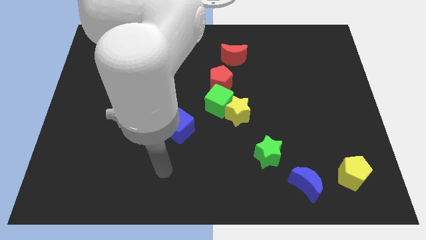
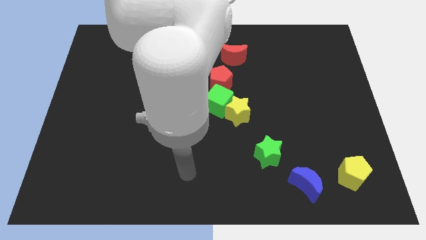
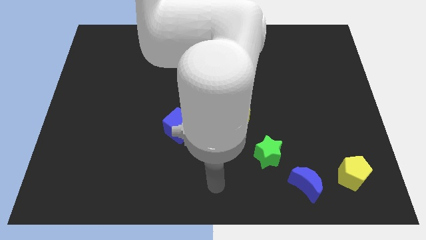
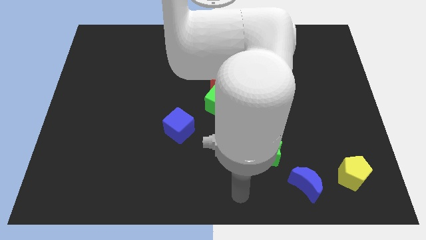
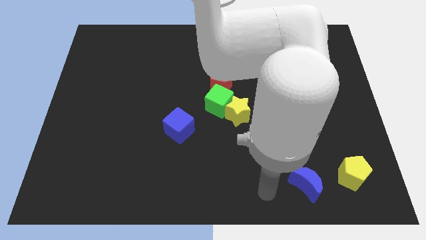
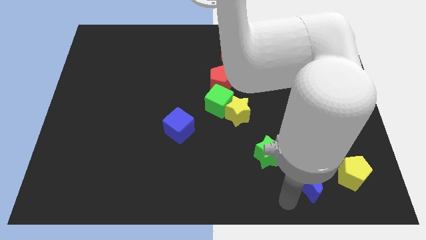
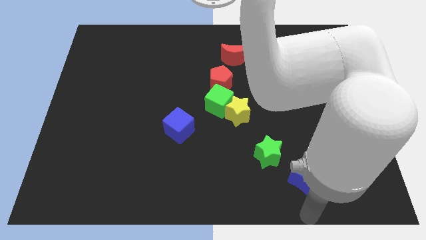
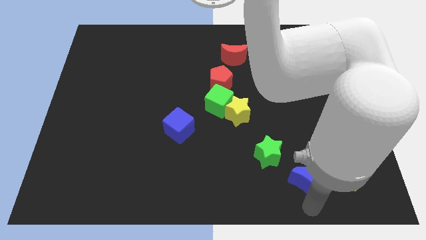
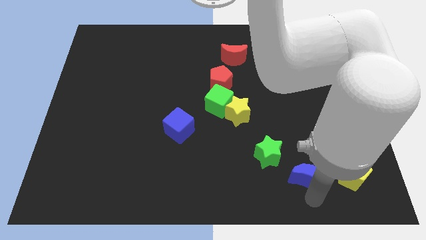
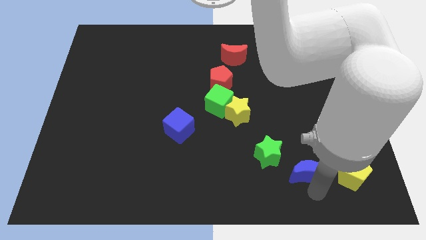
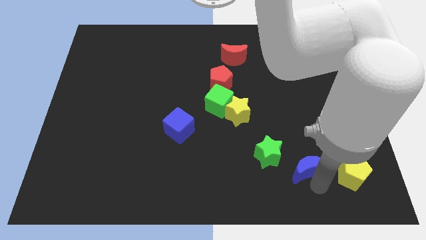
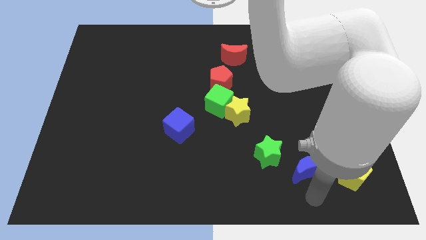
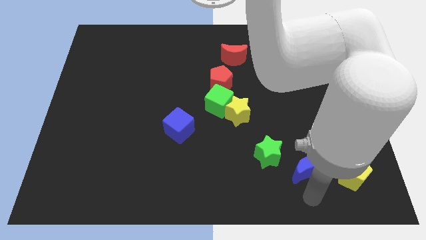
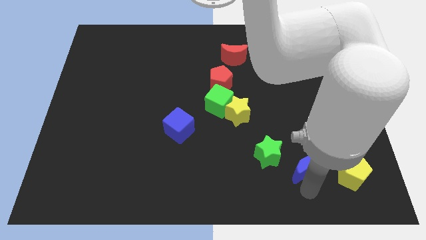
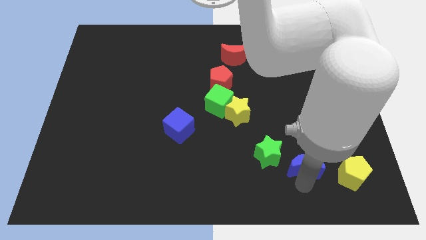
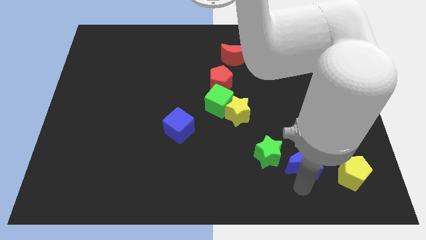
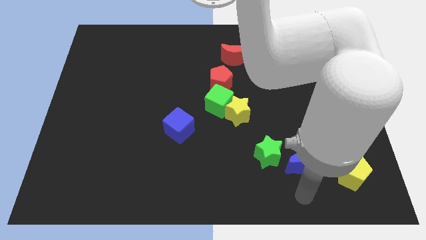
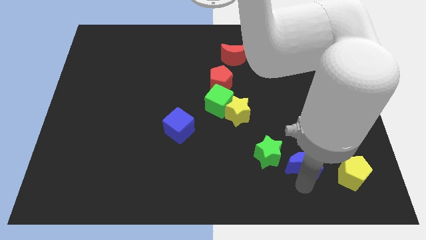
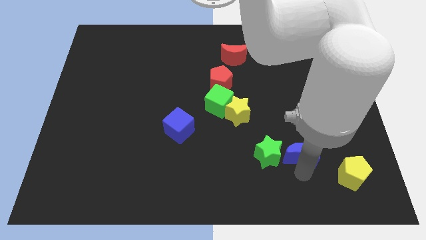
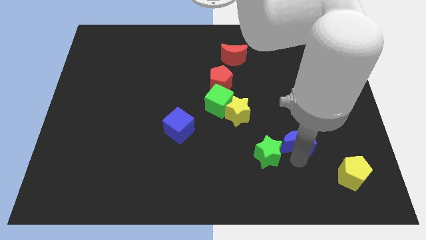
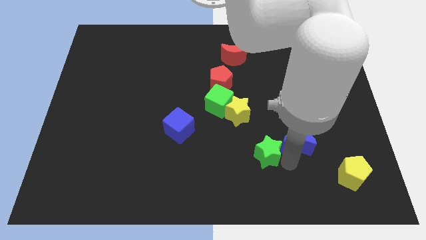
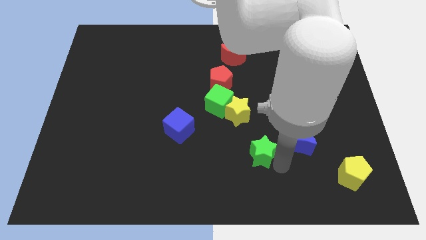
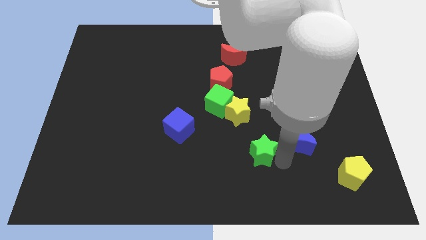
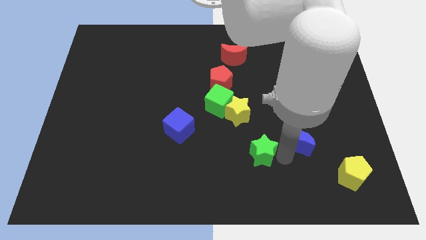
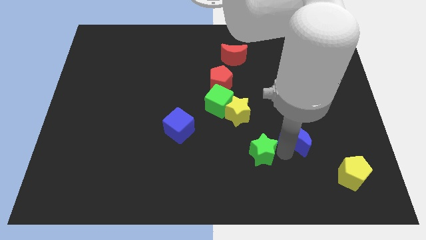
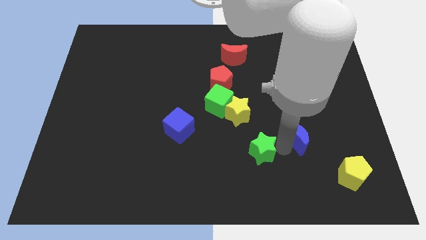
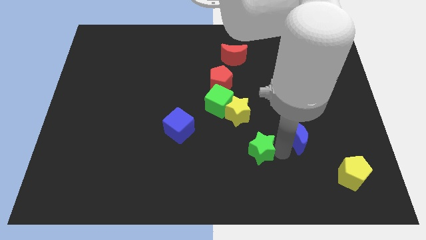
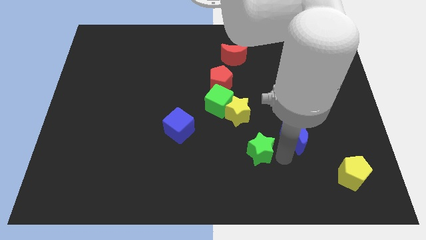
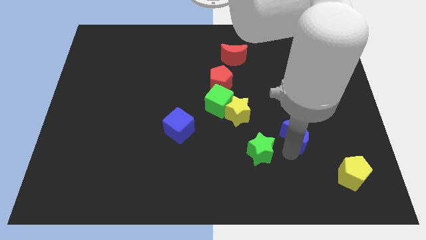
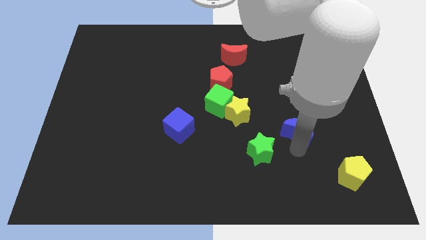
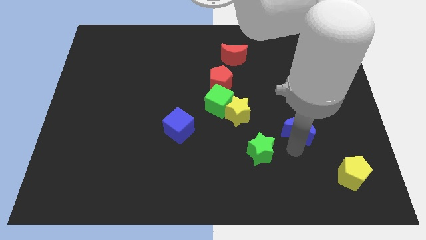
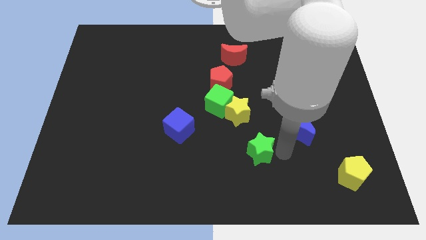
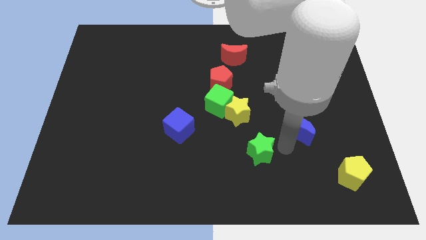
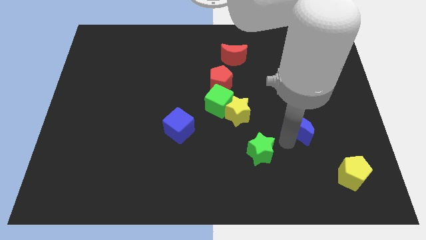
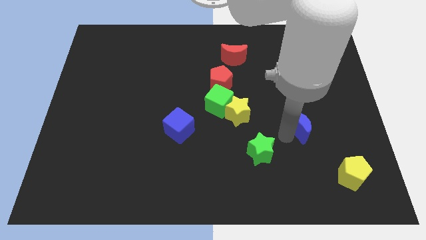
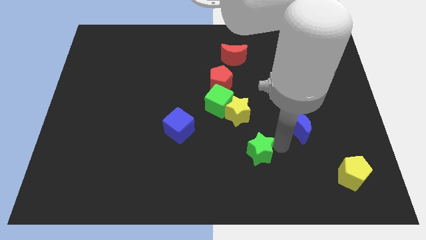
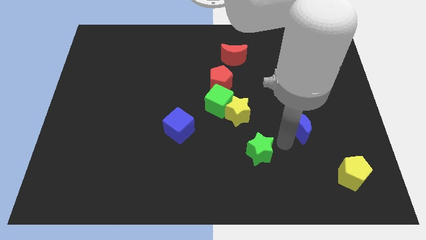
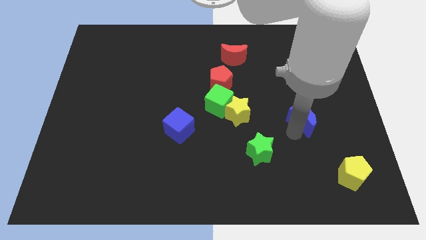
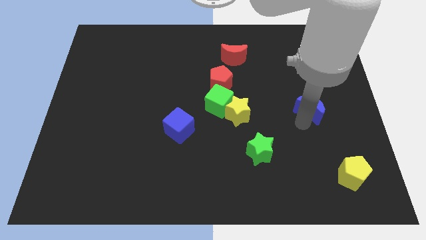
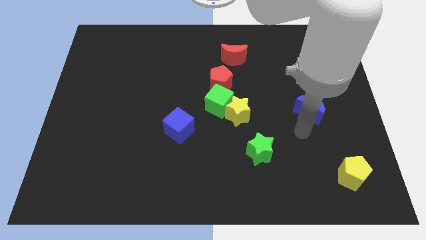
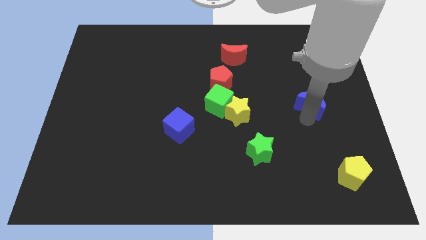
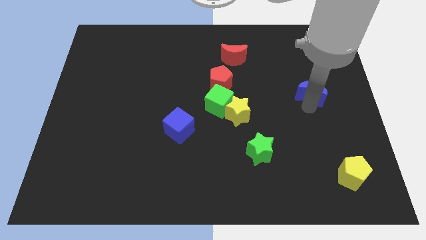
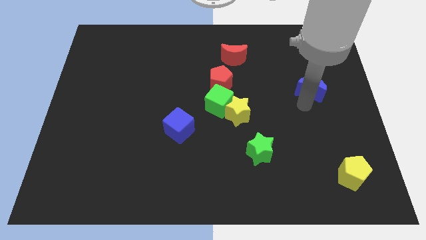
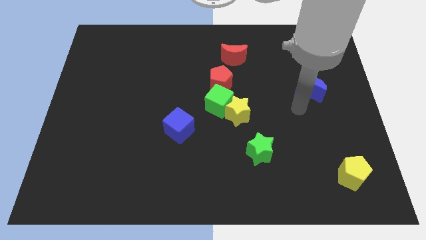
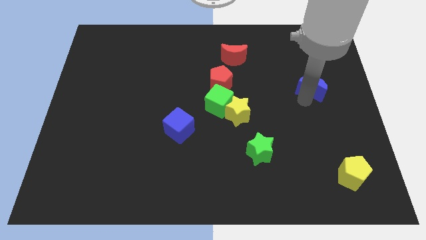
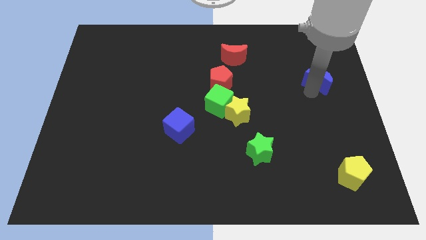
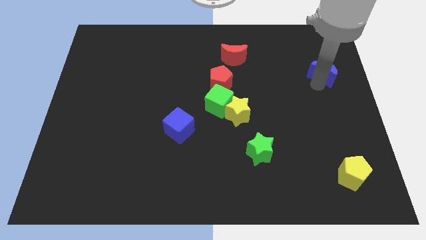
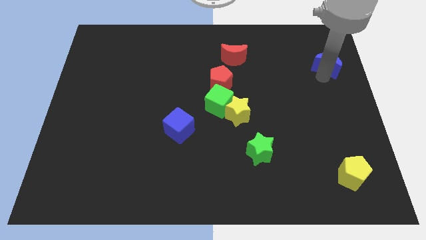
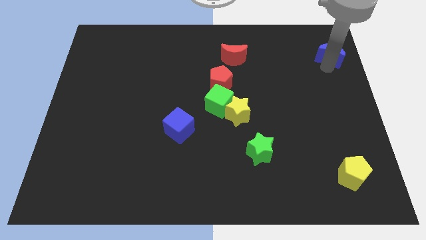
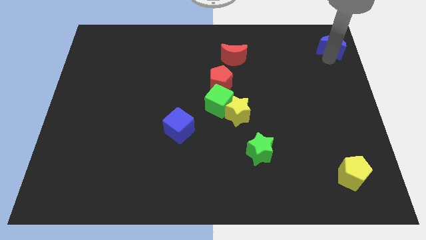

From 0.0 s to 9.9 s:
put the blue moon to the upper right corner

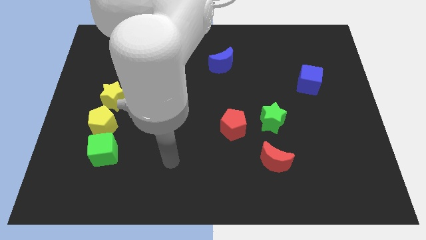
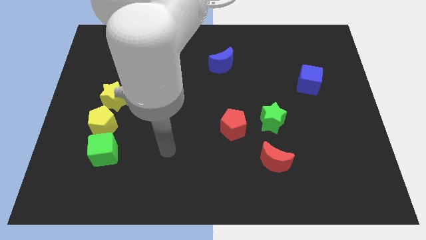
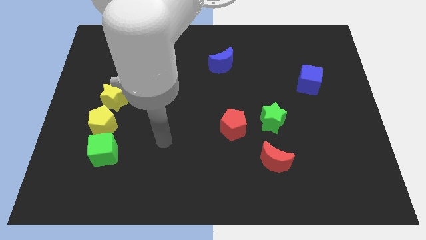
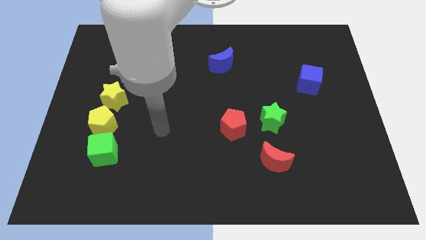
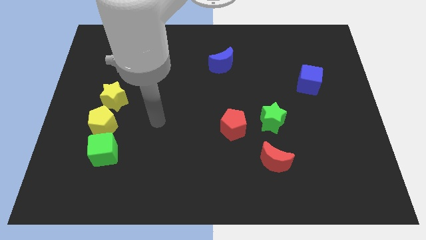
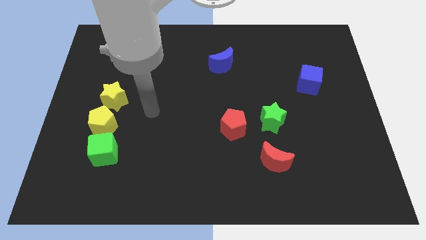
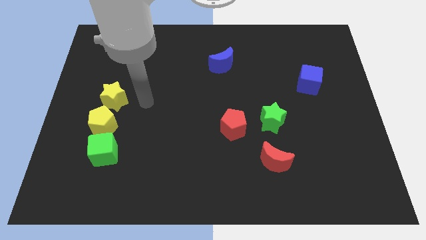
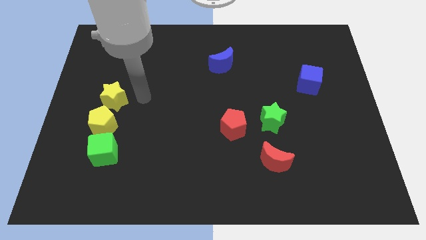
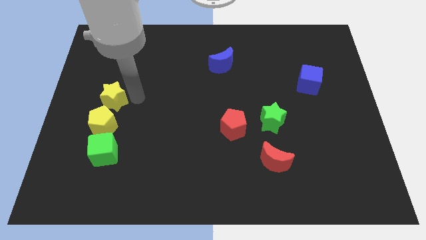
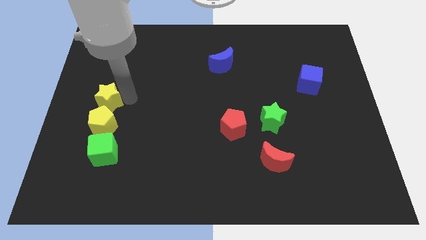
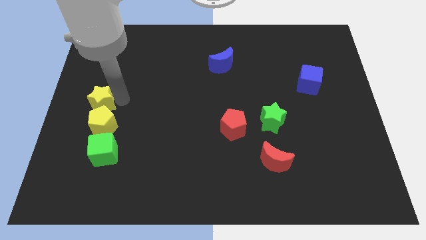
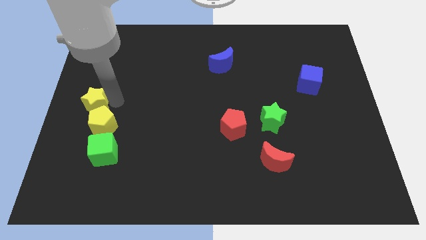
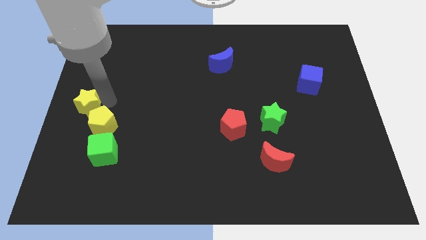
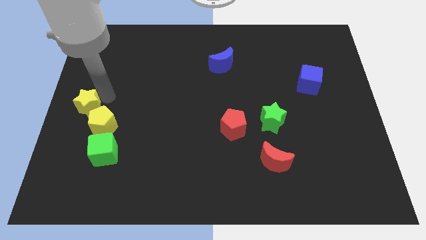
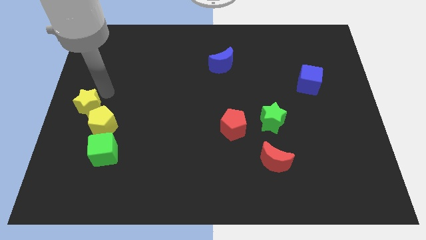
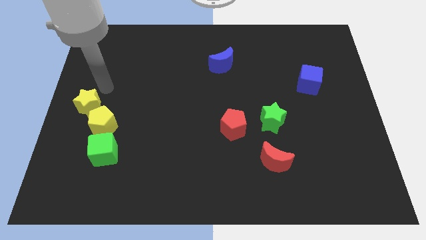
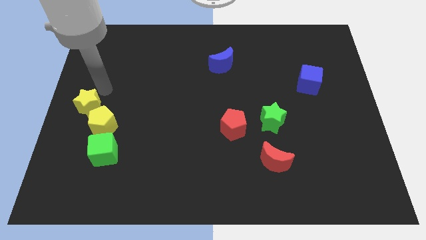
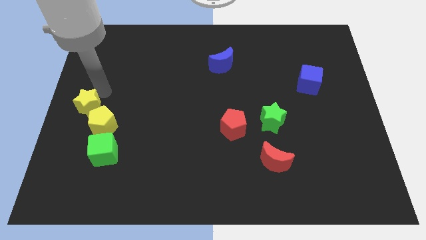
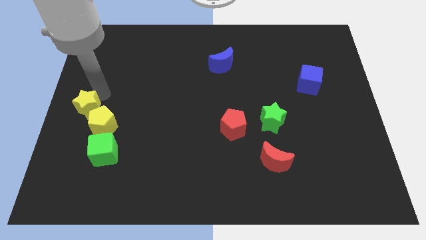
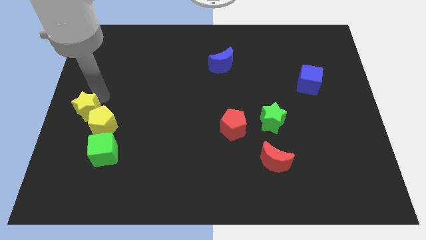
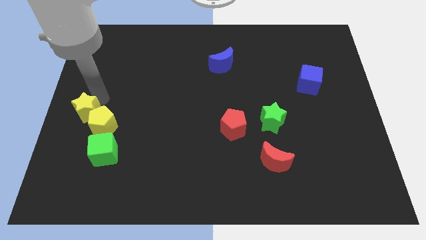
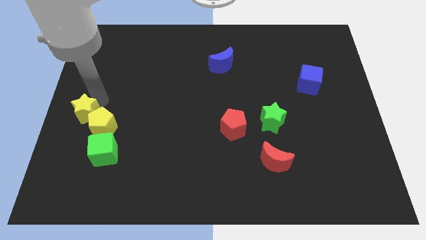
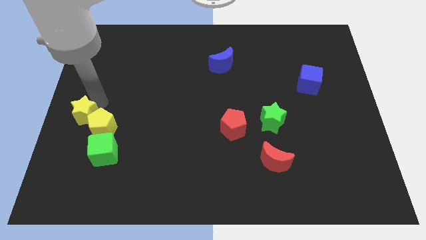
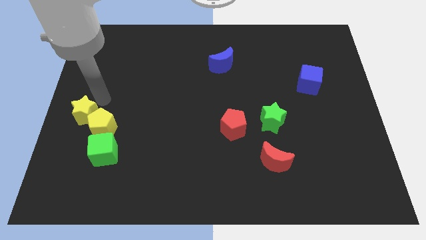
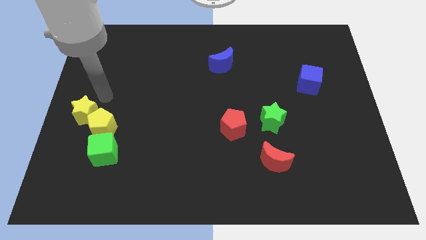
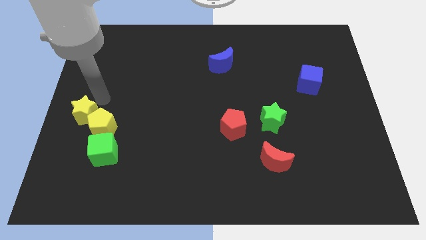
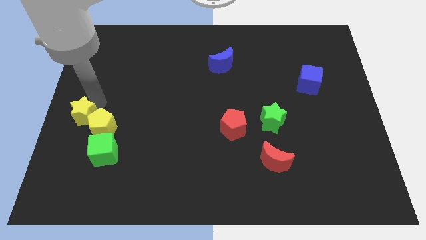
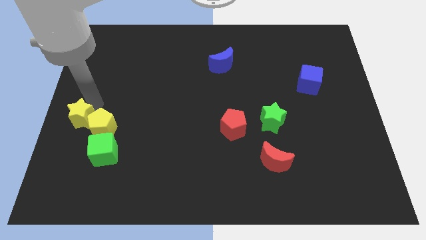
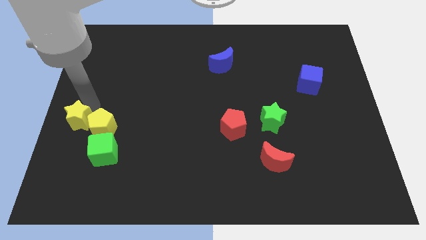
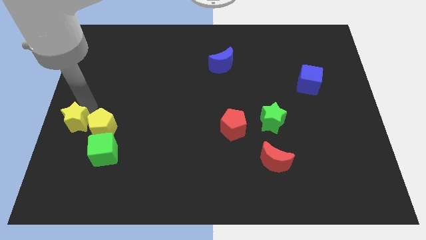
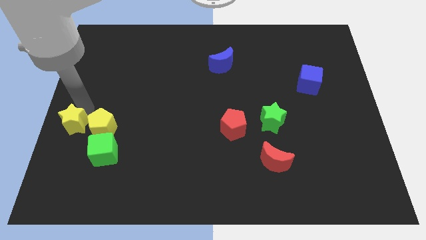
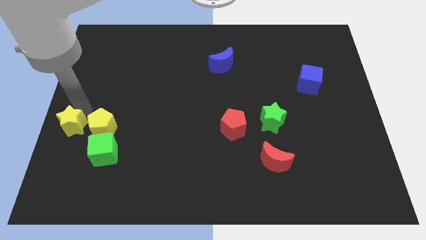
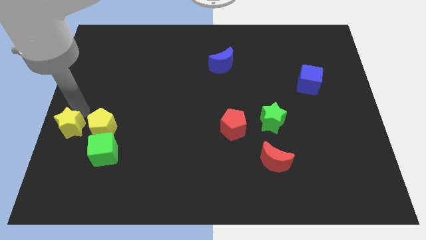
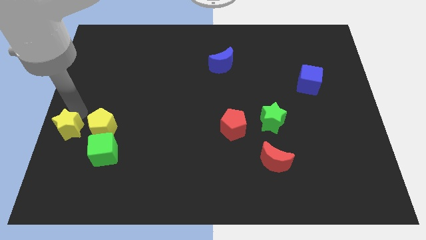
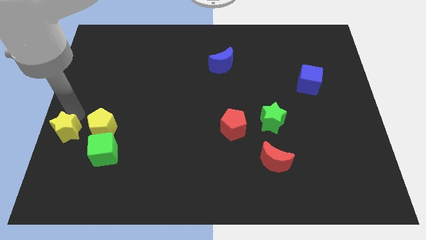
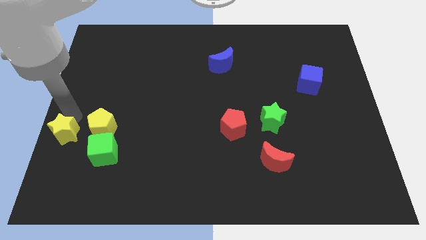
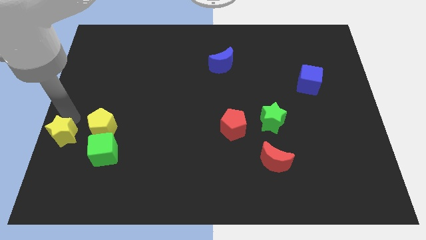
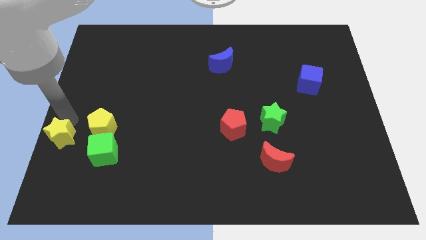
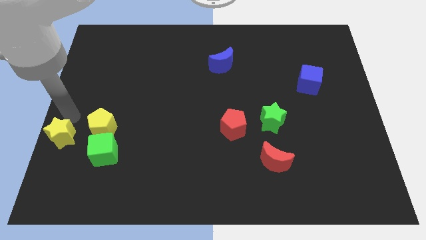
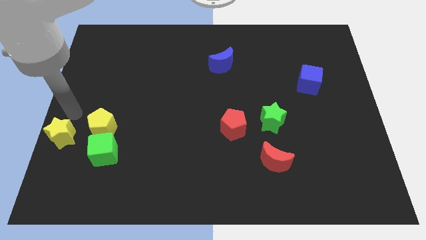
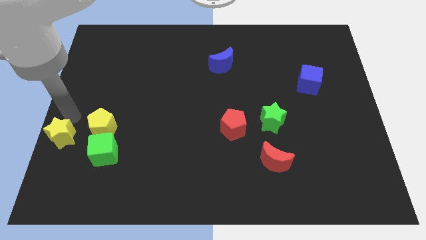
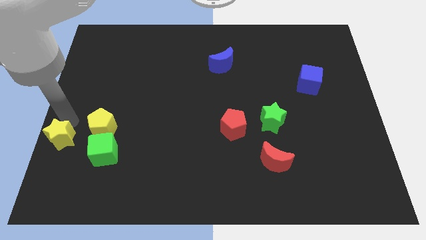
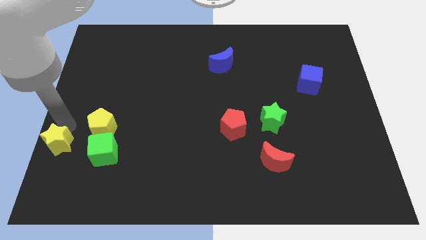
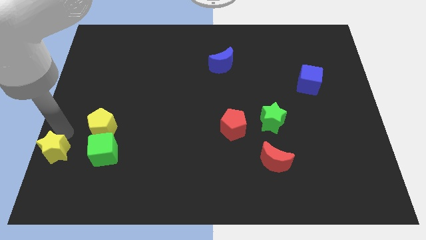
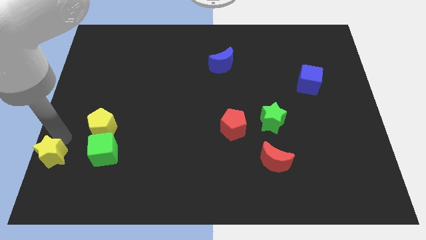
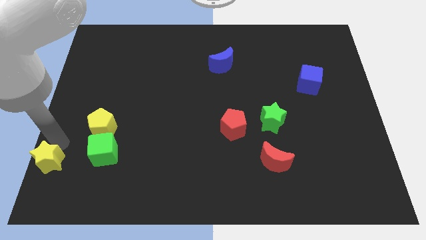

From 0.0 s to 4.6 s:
push the yellow star to the bottom left
